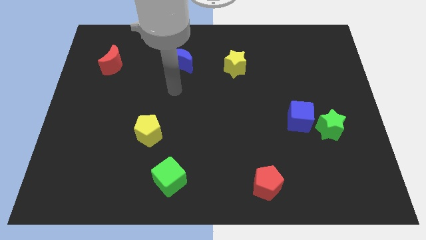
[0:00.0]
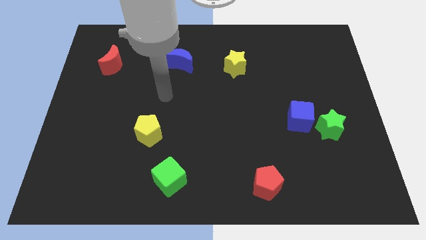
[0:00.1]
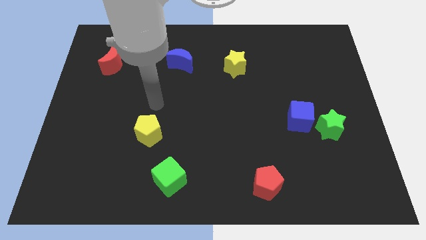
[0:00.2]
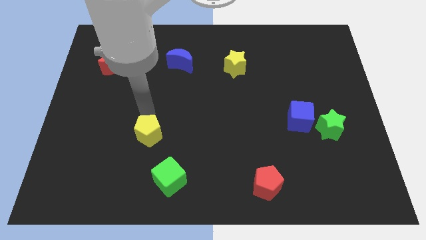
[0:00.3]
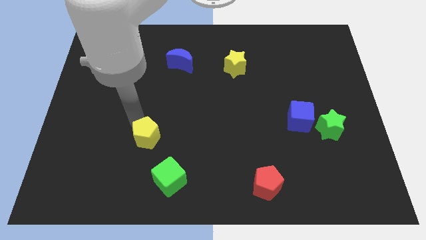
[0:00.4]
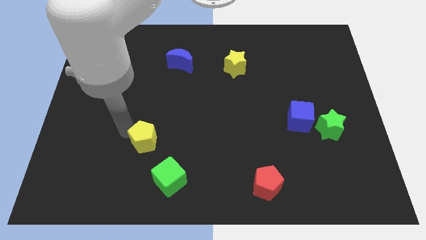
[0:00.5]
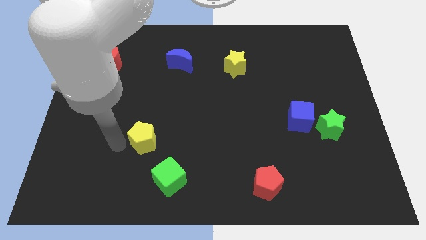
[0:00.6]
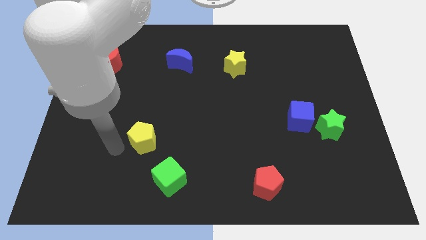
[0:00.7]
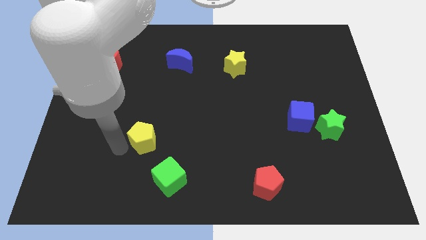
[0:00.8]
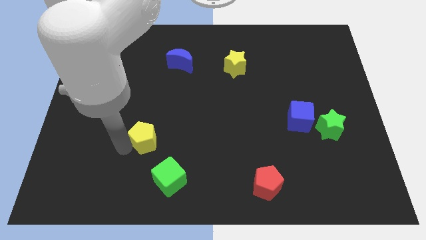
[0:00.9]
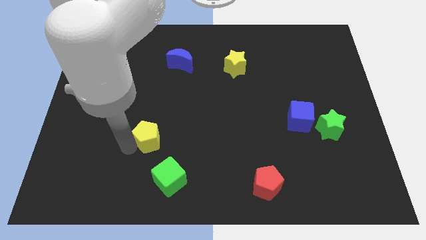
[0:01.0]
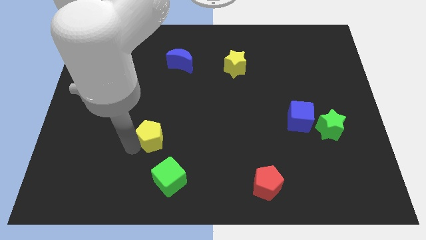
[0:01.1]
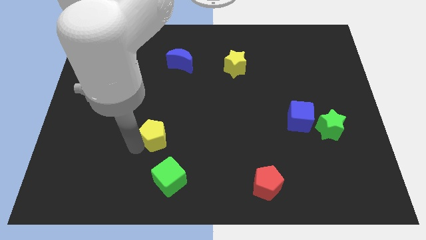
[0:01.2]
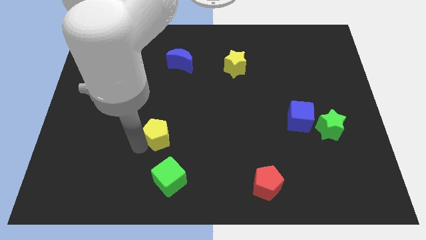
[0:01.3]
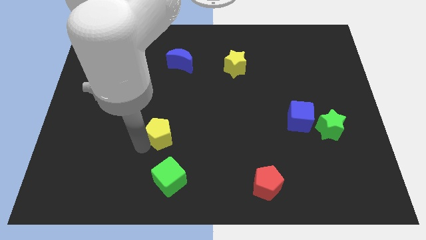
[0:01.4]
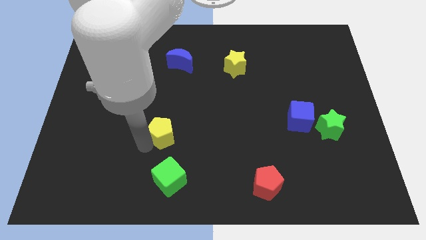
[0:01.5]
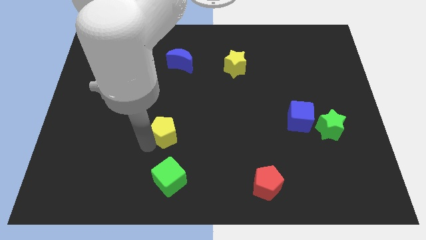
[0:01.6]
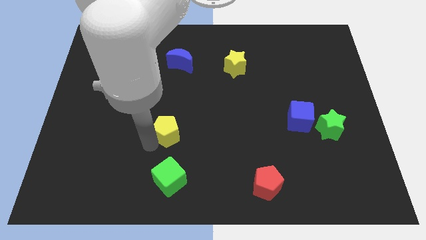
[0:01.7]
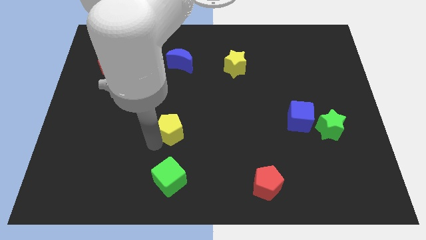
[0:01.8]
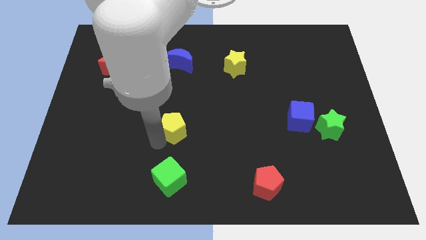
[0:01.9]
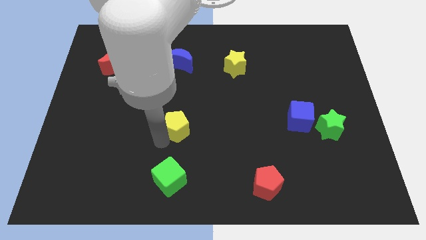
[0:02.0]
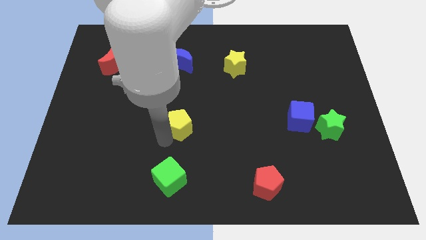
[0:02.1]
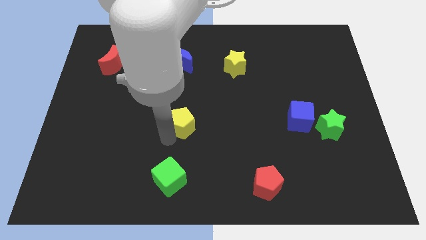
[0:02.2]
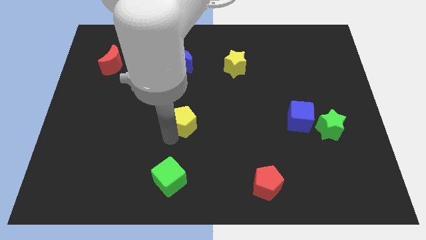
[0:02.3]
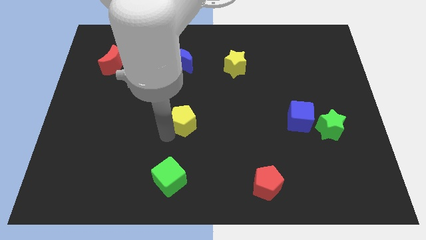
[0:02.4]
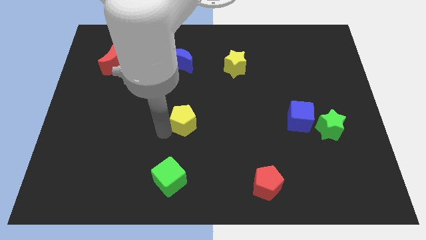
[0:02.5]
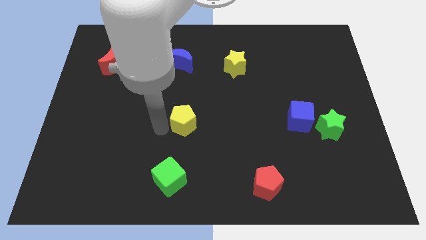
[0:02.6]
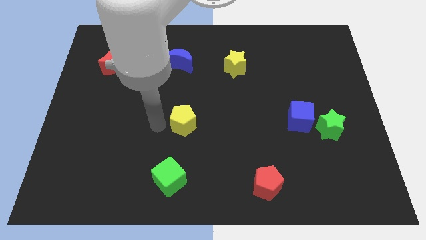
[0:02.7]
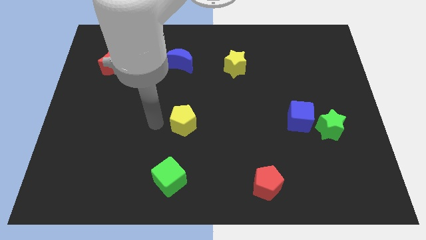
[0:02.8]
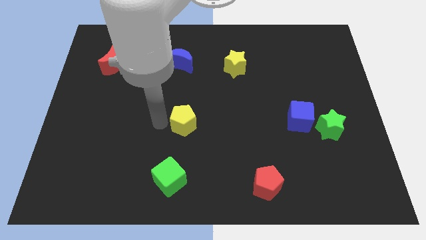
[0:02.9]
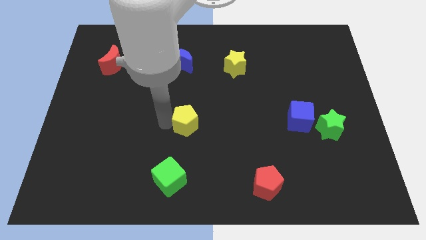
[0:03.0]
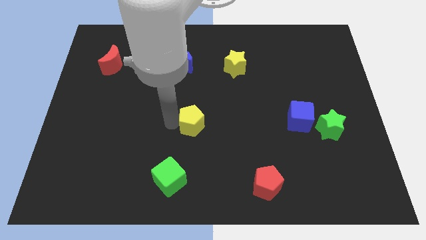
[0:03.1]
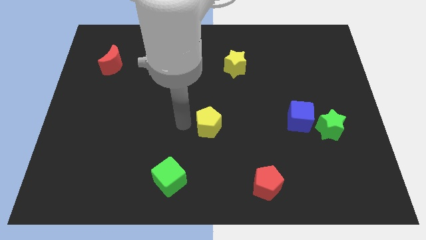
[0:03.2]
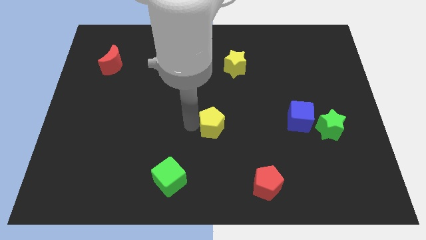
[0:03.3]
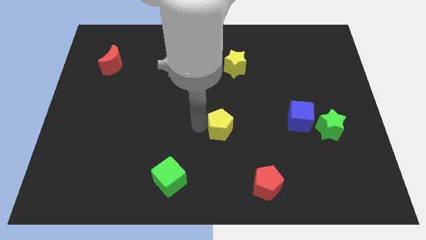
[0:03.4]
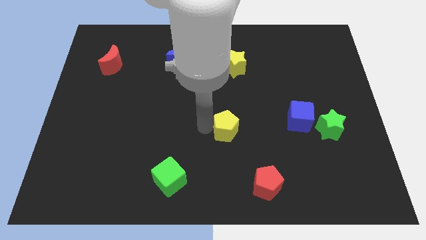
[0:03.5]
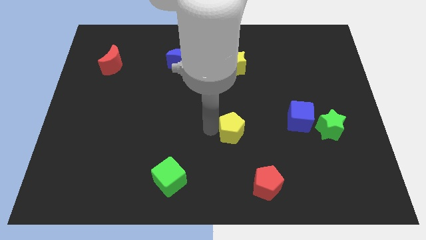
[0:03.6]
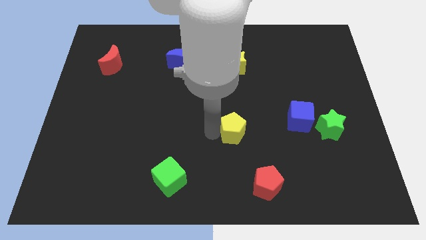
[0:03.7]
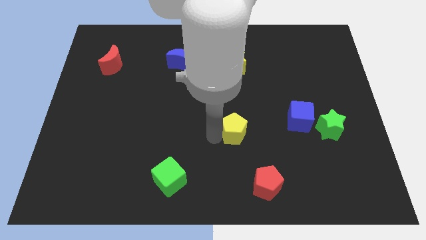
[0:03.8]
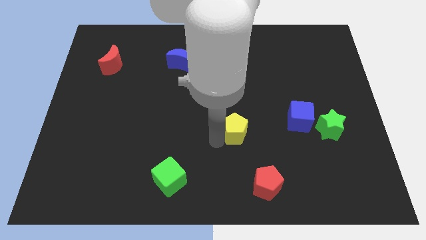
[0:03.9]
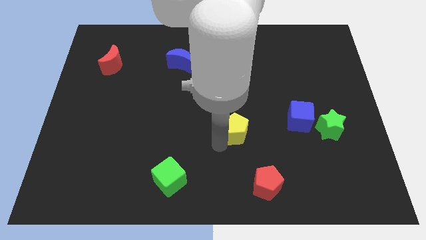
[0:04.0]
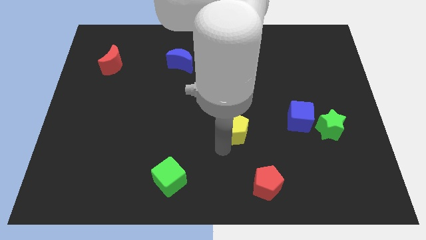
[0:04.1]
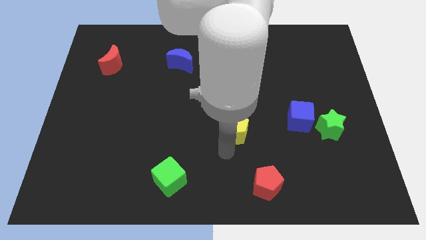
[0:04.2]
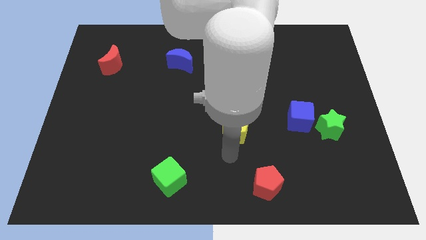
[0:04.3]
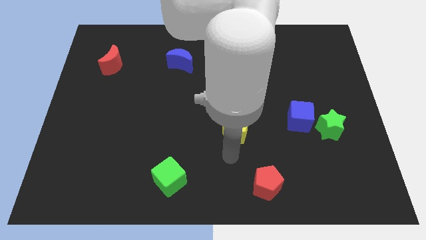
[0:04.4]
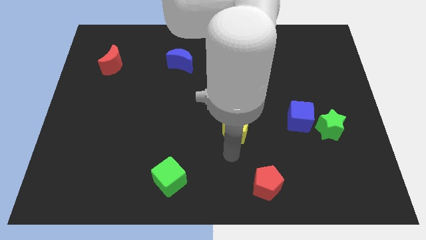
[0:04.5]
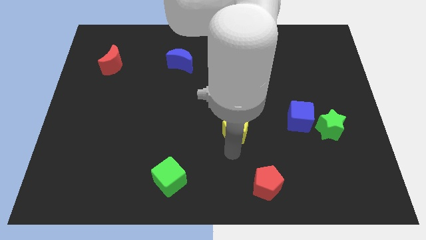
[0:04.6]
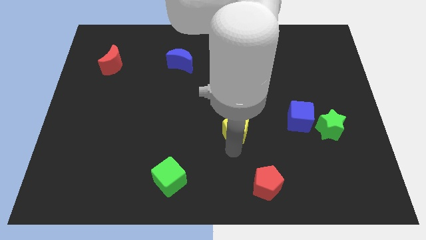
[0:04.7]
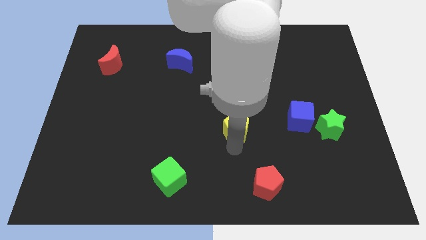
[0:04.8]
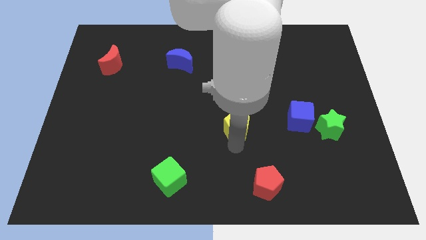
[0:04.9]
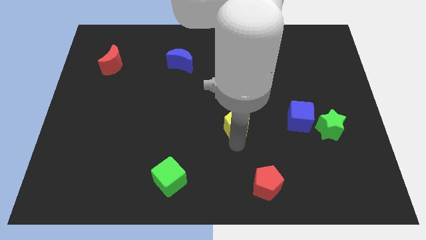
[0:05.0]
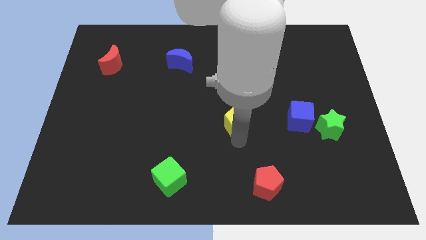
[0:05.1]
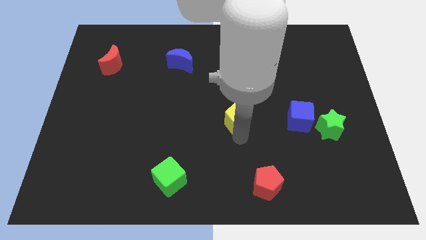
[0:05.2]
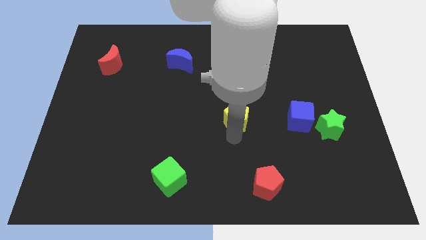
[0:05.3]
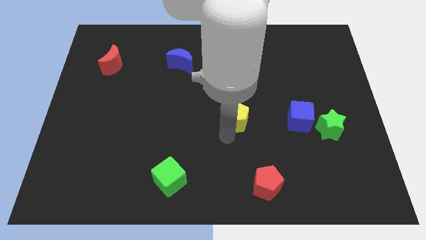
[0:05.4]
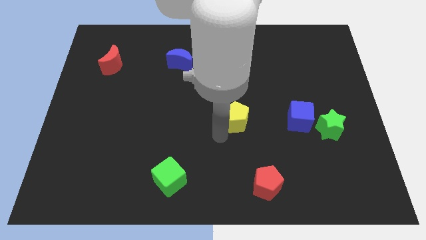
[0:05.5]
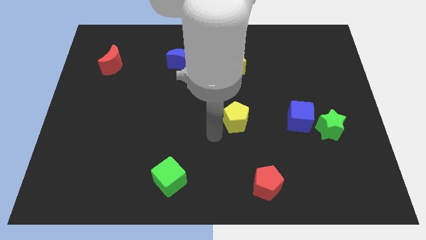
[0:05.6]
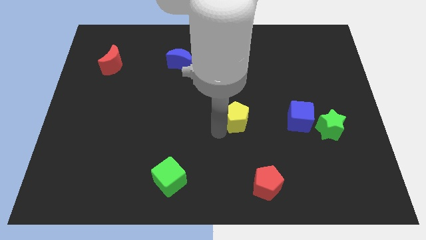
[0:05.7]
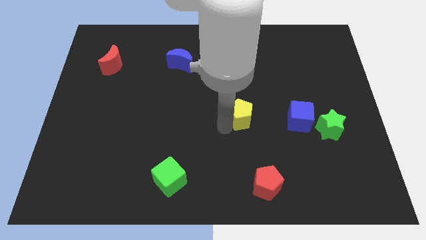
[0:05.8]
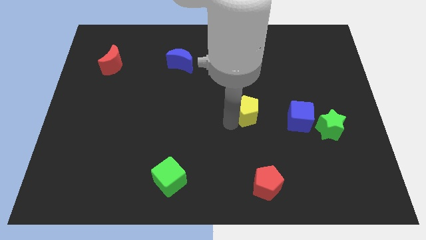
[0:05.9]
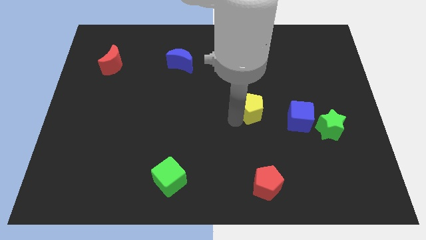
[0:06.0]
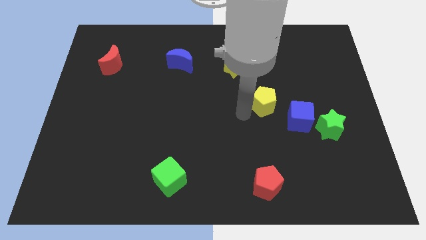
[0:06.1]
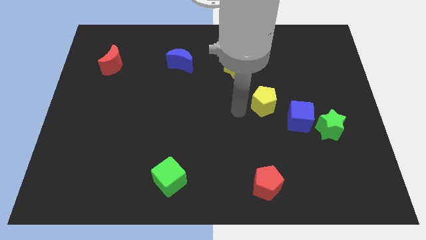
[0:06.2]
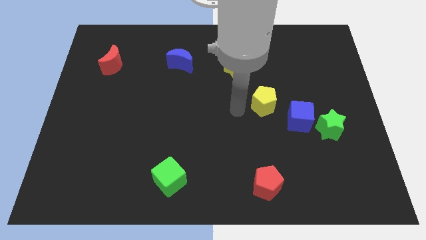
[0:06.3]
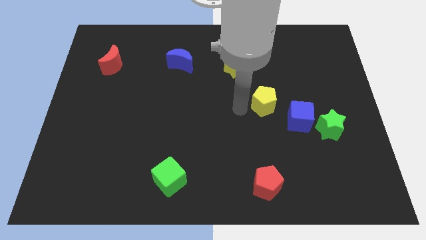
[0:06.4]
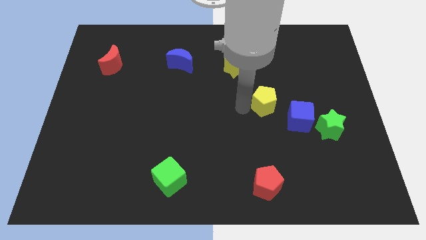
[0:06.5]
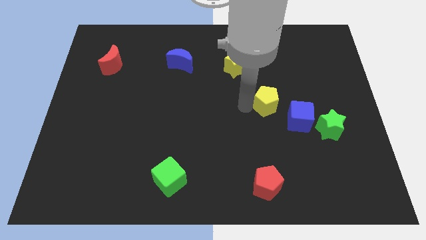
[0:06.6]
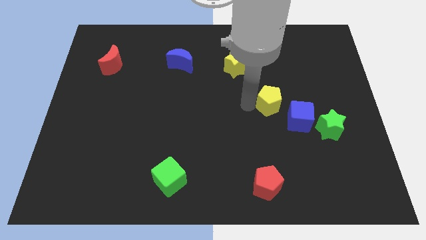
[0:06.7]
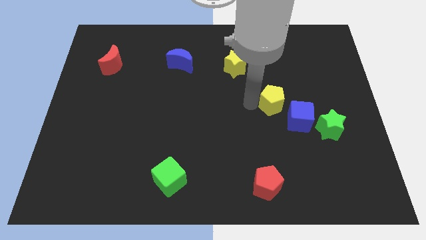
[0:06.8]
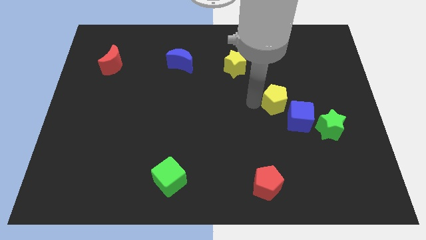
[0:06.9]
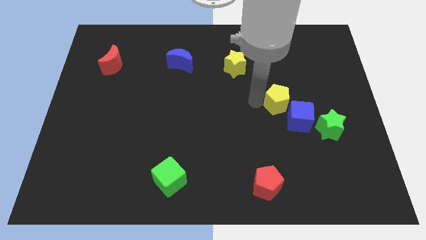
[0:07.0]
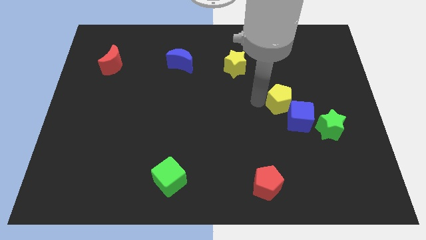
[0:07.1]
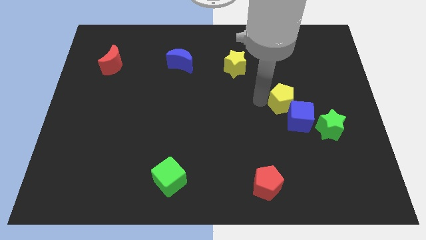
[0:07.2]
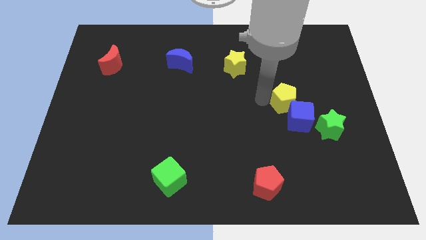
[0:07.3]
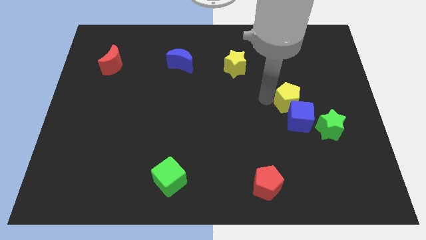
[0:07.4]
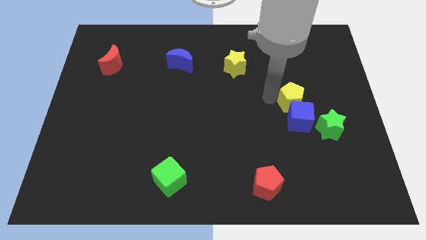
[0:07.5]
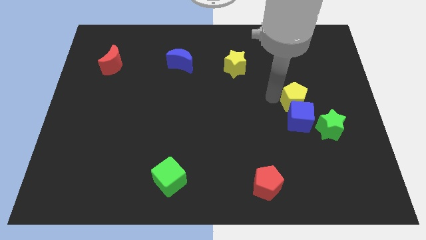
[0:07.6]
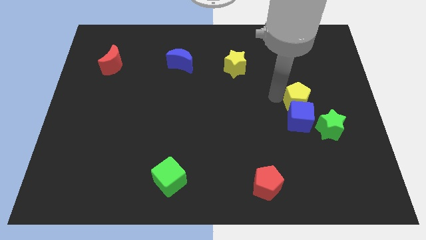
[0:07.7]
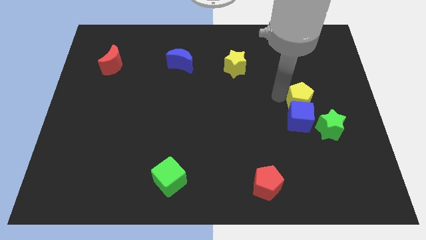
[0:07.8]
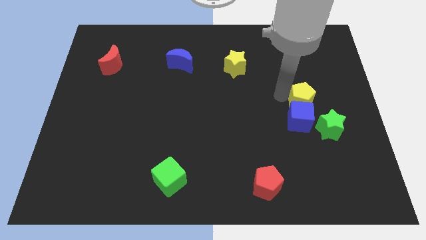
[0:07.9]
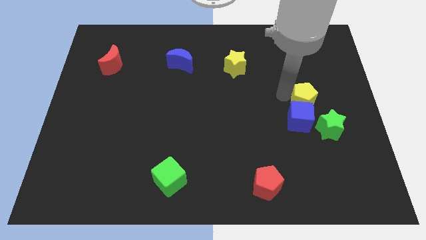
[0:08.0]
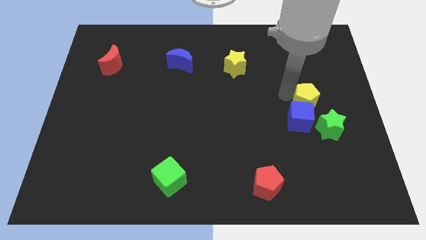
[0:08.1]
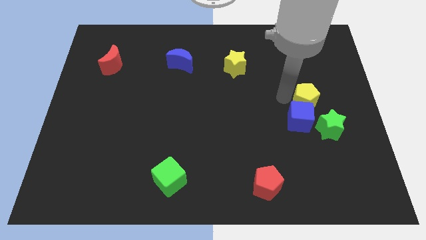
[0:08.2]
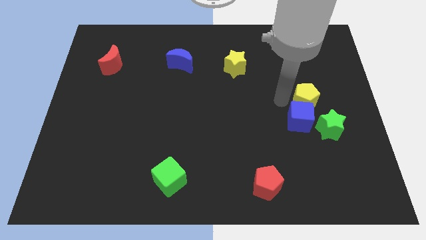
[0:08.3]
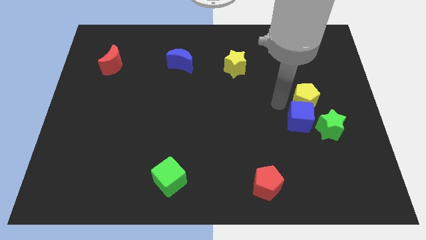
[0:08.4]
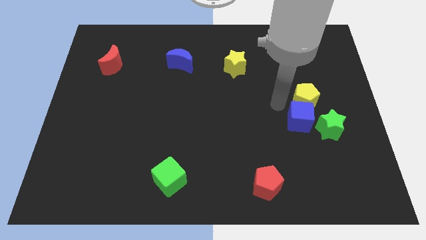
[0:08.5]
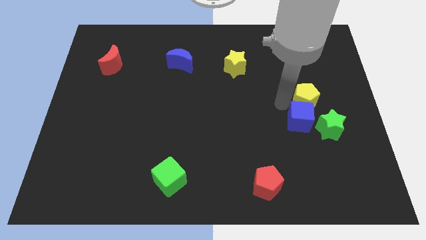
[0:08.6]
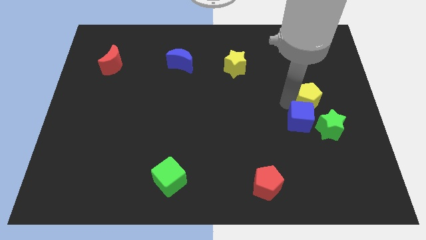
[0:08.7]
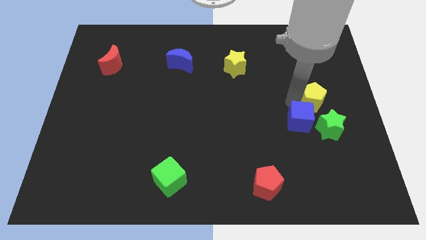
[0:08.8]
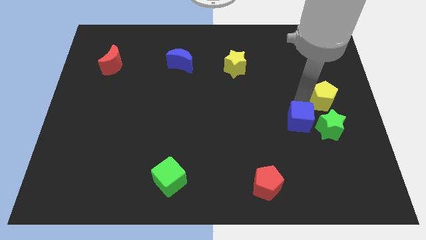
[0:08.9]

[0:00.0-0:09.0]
put the yellow pentagon to the center right
